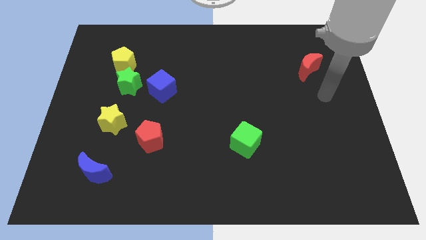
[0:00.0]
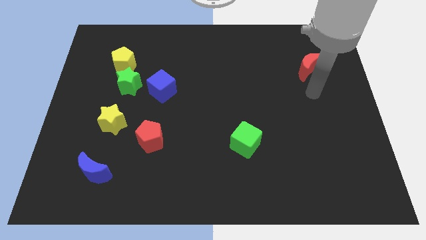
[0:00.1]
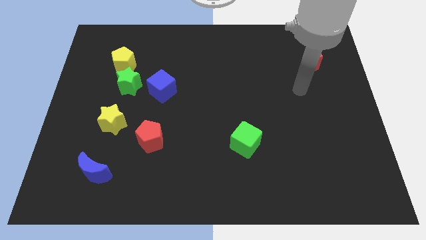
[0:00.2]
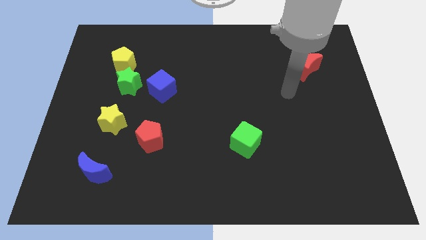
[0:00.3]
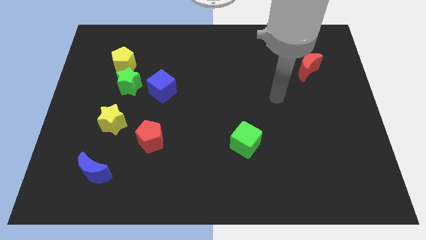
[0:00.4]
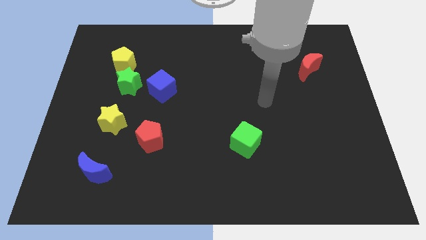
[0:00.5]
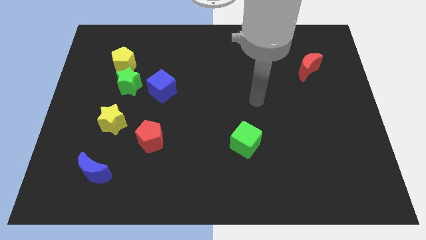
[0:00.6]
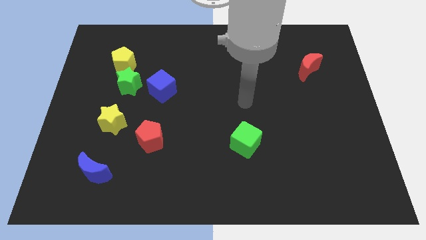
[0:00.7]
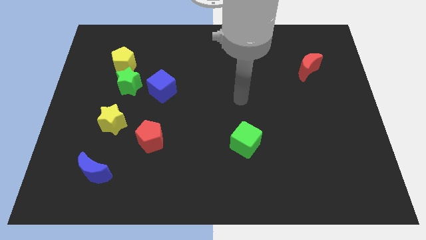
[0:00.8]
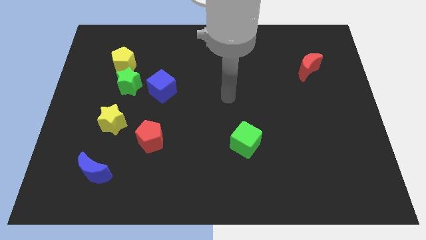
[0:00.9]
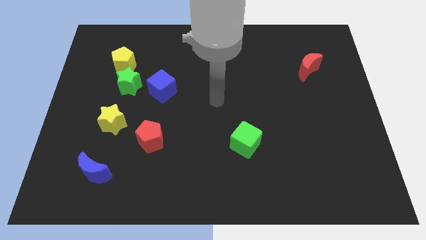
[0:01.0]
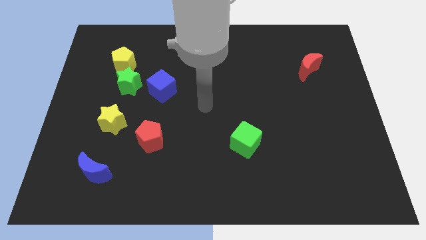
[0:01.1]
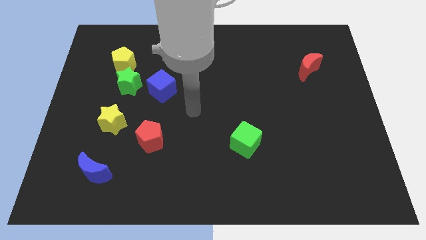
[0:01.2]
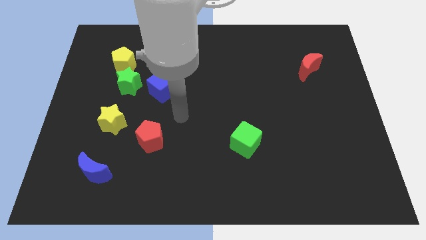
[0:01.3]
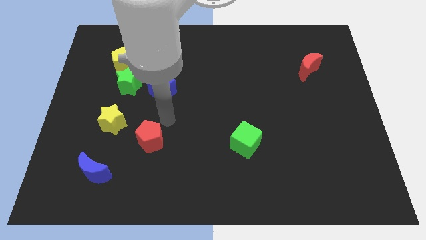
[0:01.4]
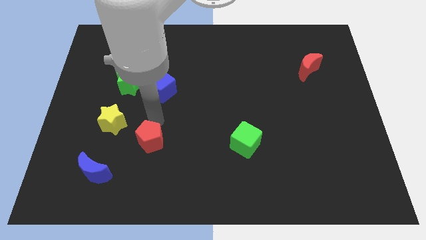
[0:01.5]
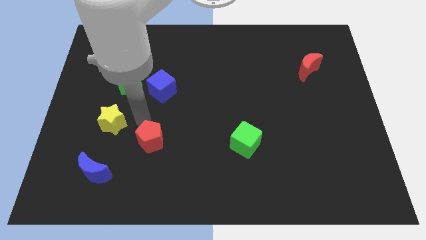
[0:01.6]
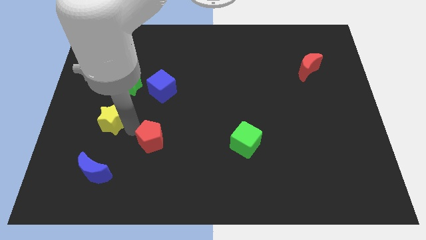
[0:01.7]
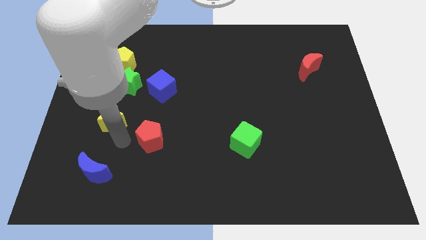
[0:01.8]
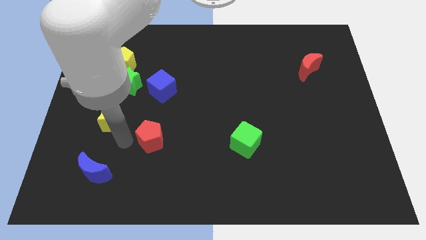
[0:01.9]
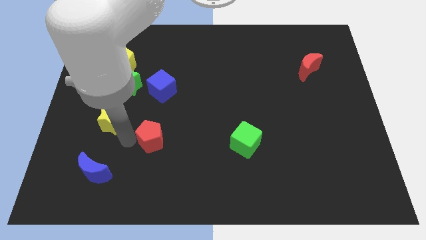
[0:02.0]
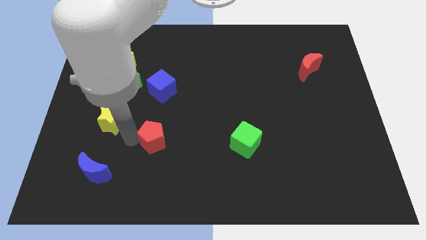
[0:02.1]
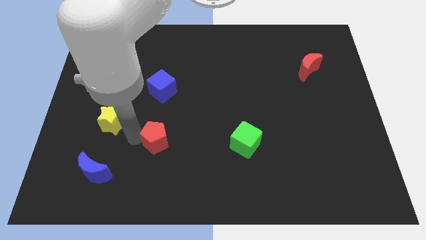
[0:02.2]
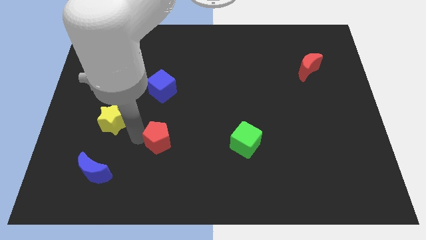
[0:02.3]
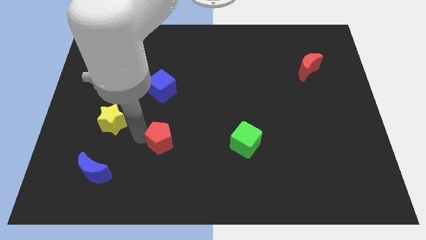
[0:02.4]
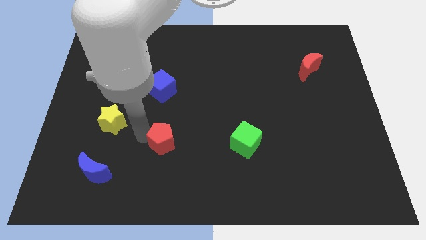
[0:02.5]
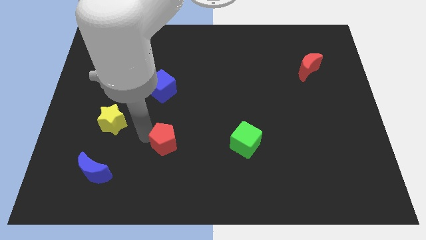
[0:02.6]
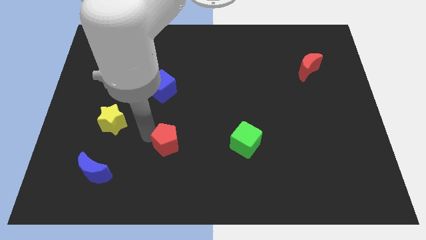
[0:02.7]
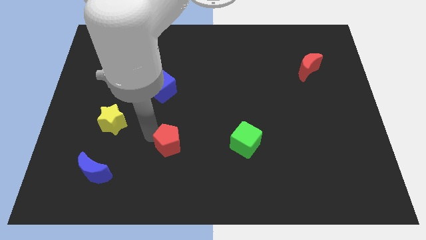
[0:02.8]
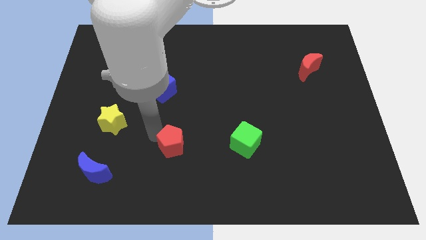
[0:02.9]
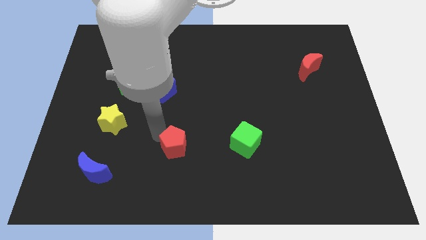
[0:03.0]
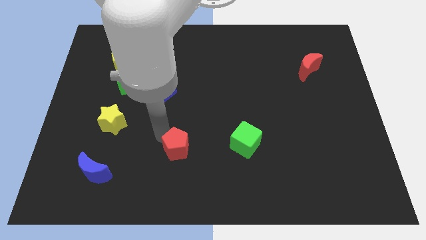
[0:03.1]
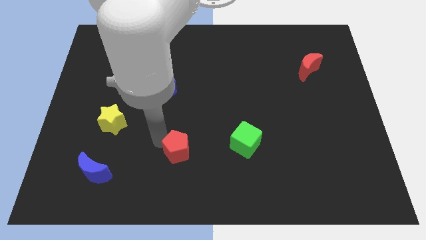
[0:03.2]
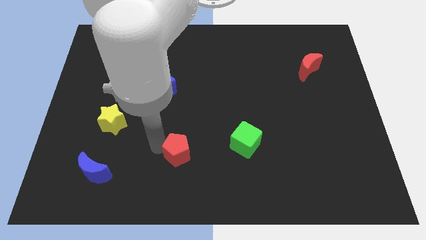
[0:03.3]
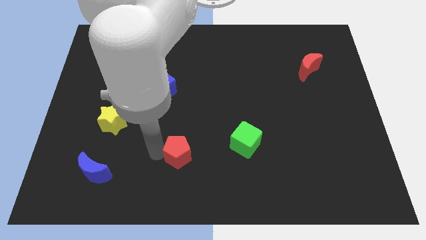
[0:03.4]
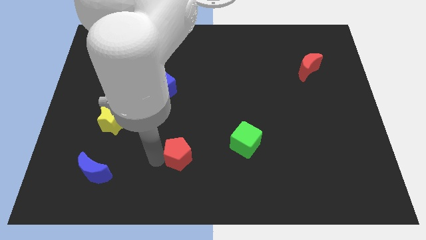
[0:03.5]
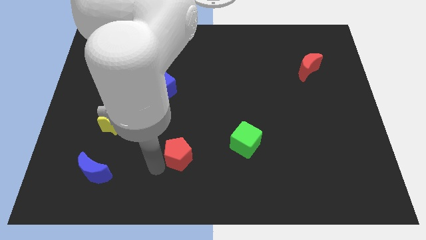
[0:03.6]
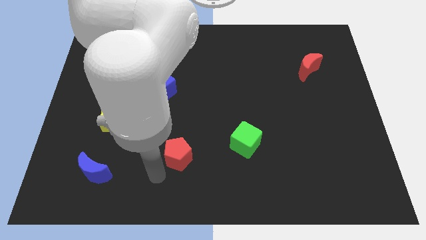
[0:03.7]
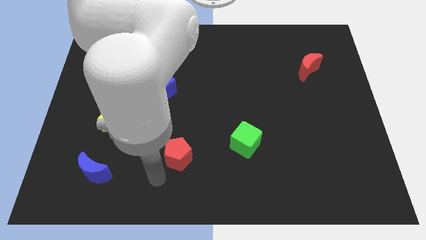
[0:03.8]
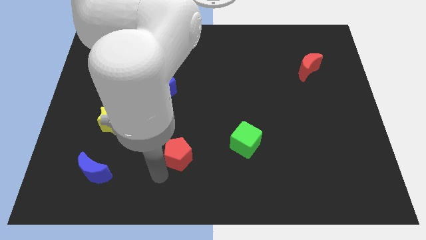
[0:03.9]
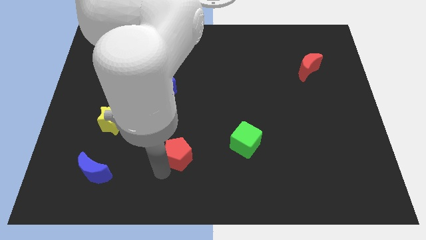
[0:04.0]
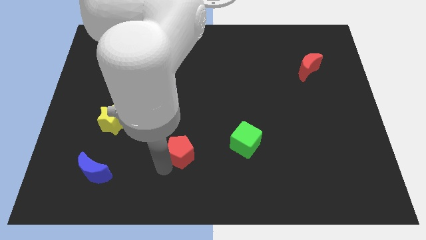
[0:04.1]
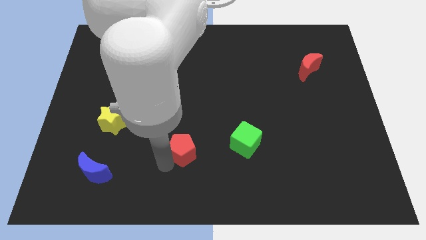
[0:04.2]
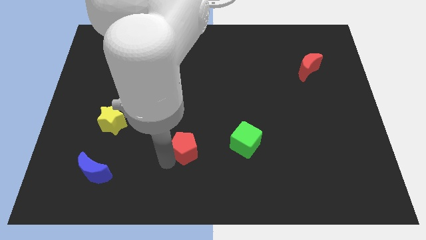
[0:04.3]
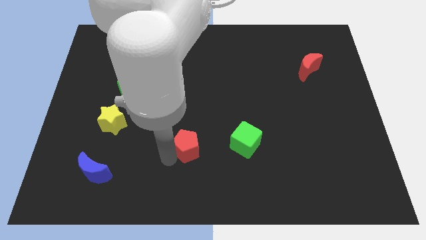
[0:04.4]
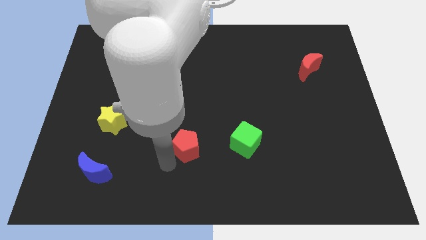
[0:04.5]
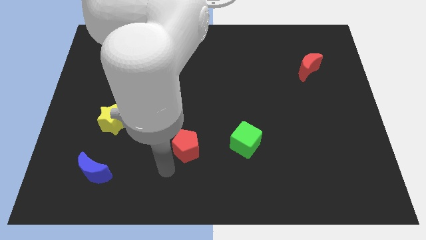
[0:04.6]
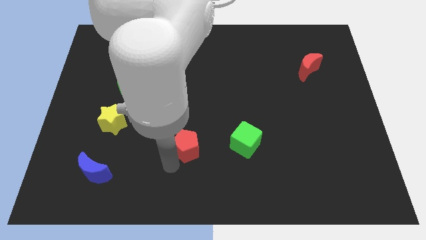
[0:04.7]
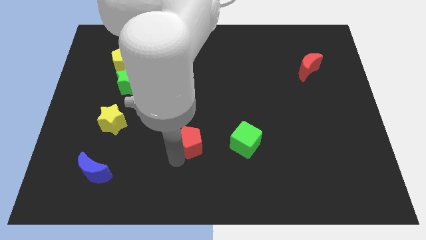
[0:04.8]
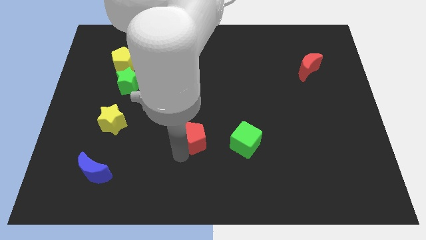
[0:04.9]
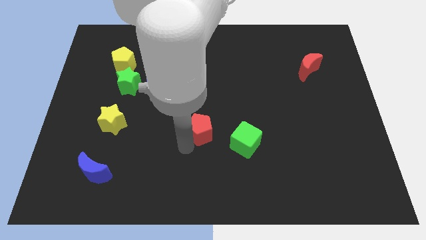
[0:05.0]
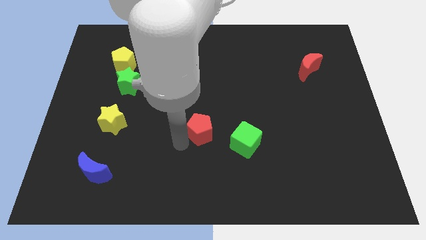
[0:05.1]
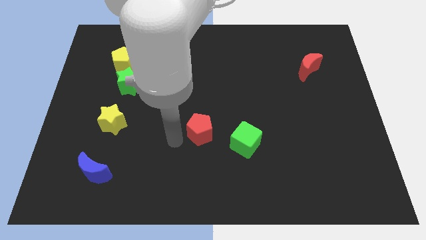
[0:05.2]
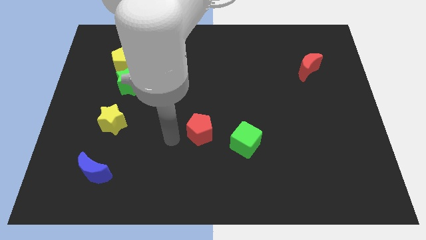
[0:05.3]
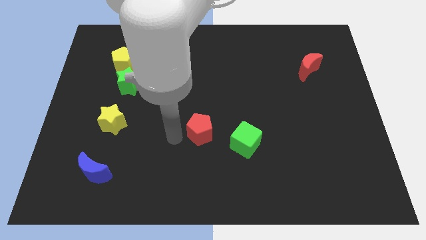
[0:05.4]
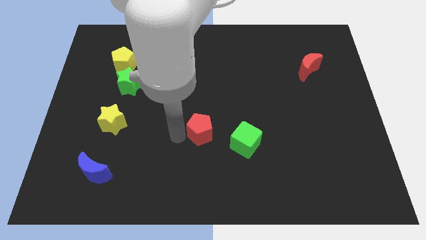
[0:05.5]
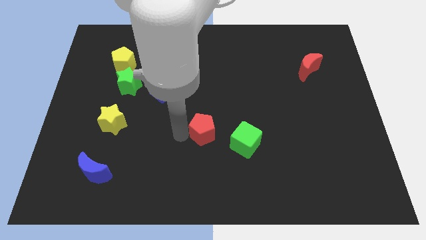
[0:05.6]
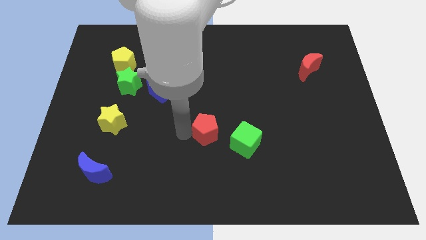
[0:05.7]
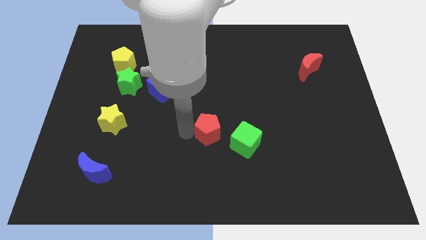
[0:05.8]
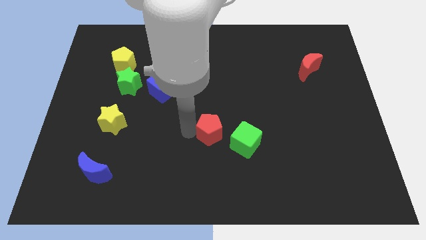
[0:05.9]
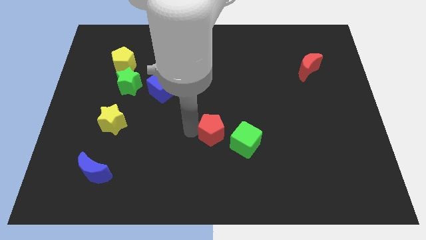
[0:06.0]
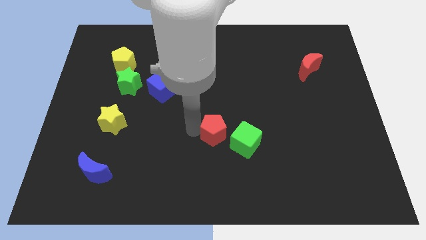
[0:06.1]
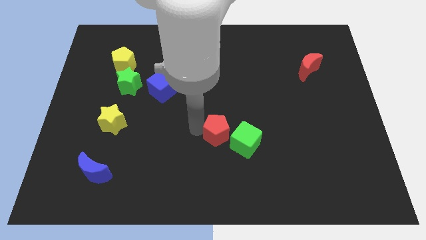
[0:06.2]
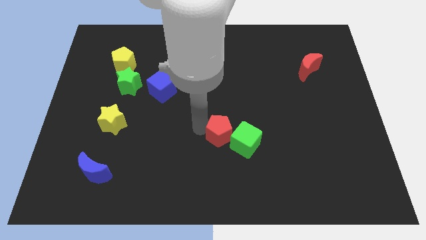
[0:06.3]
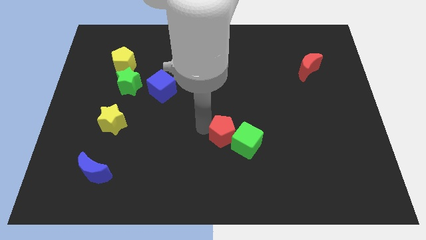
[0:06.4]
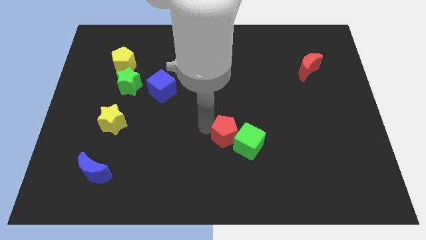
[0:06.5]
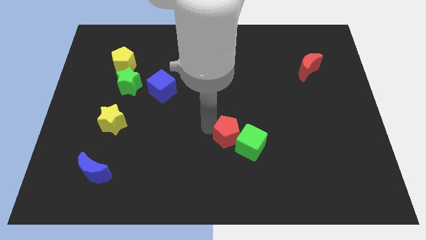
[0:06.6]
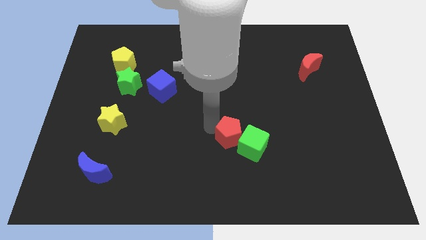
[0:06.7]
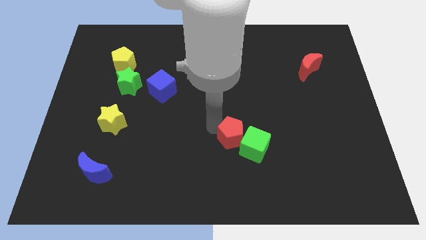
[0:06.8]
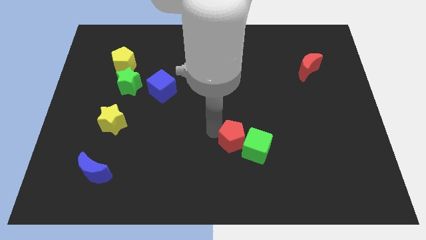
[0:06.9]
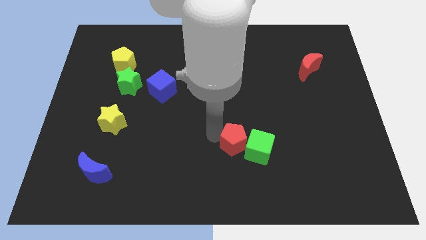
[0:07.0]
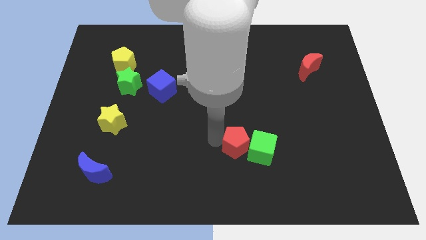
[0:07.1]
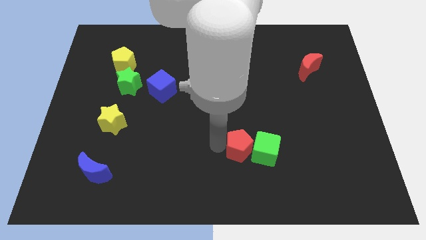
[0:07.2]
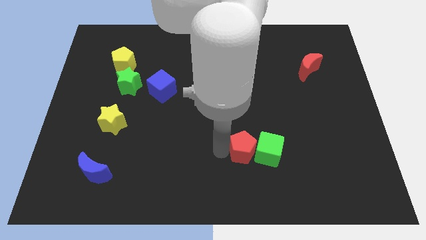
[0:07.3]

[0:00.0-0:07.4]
move the red pentagon to the right

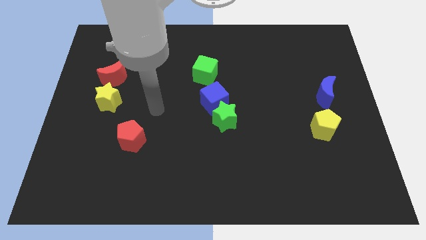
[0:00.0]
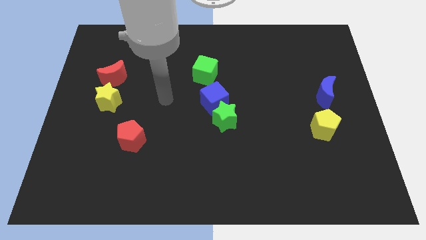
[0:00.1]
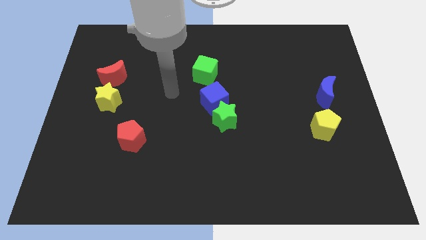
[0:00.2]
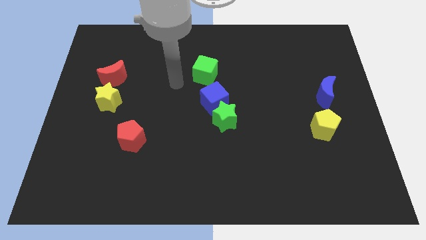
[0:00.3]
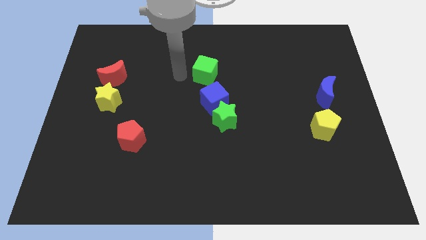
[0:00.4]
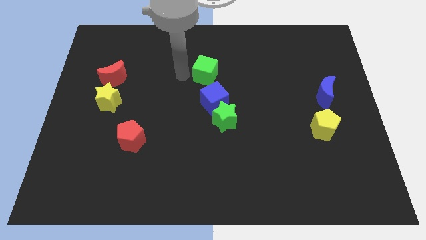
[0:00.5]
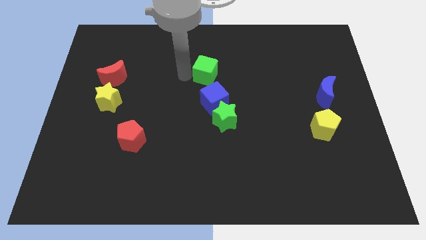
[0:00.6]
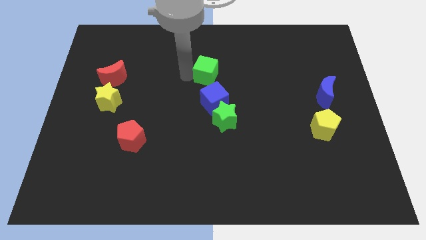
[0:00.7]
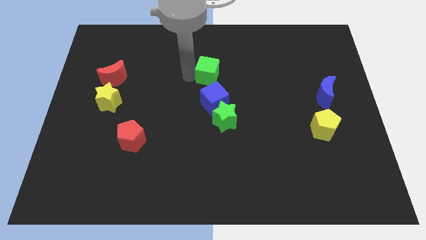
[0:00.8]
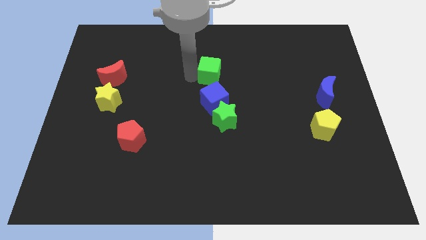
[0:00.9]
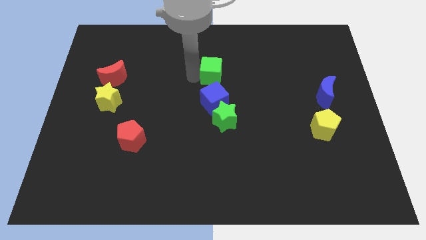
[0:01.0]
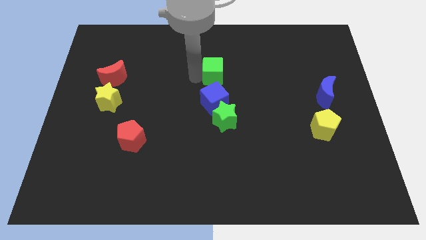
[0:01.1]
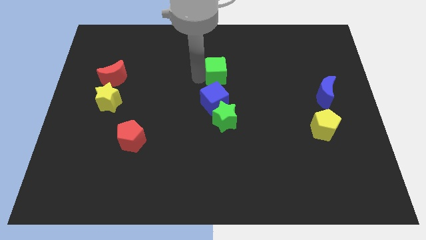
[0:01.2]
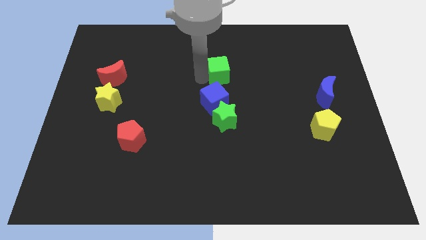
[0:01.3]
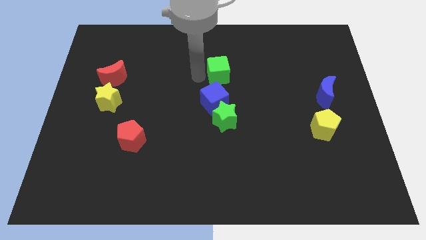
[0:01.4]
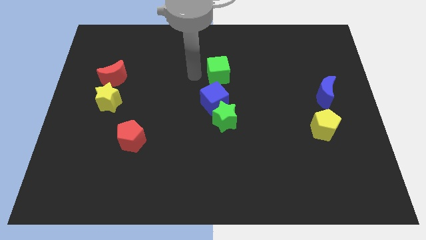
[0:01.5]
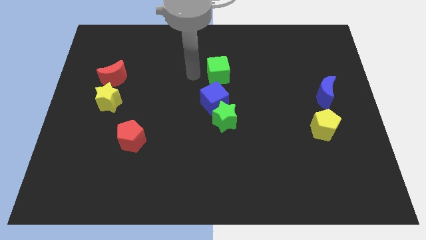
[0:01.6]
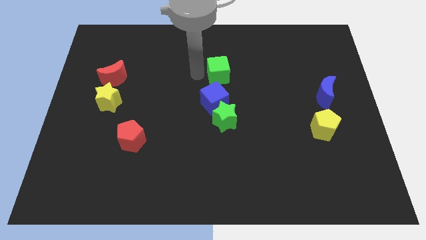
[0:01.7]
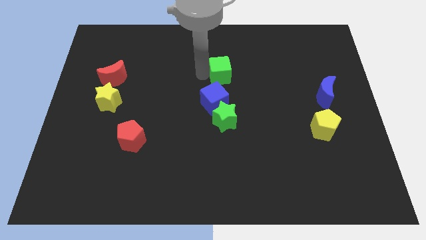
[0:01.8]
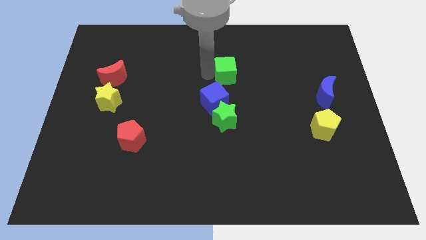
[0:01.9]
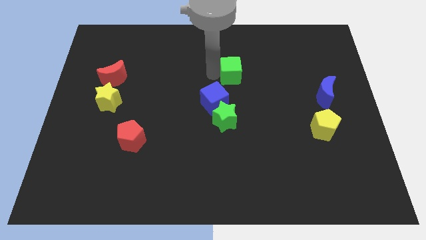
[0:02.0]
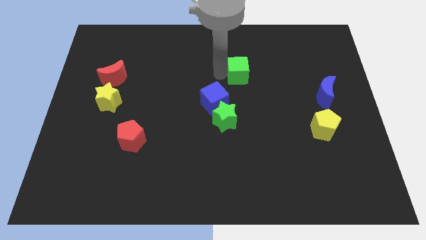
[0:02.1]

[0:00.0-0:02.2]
slightly slide the green cube right
